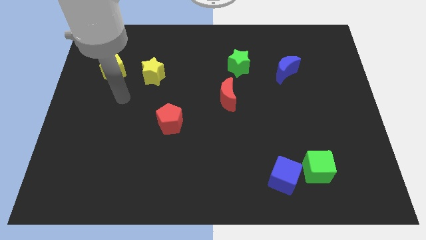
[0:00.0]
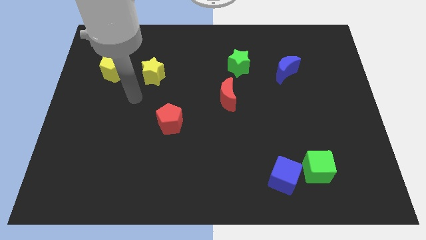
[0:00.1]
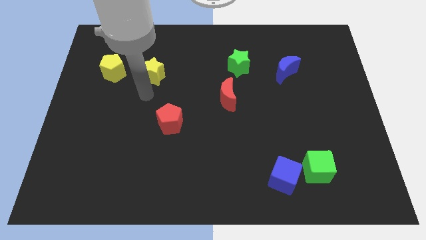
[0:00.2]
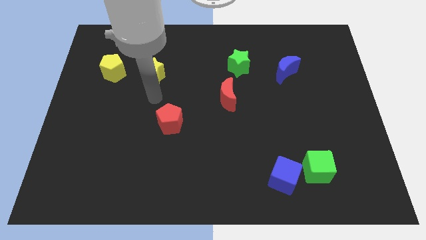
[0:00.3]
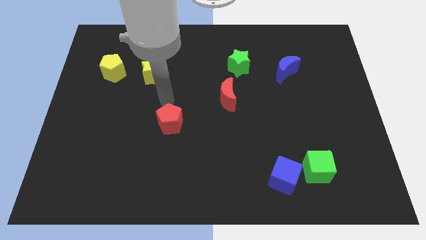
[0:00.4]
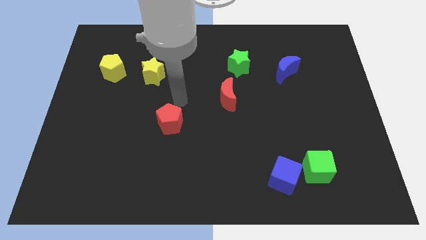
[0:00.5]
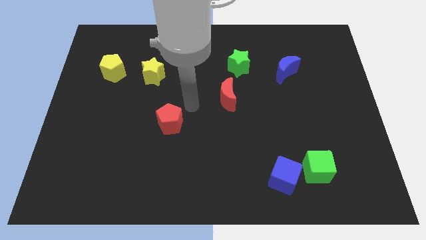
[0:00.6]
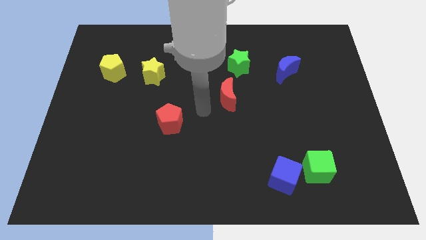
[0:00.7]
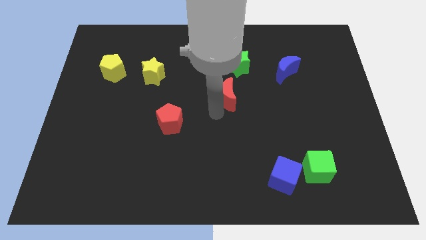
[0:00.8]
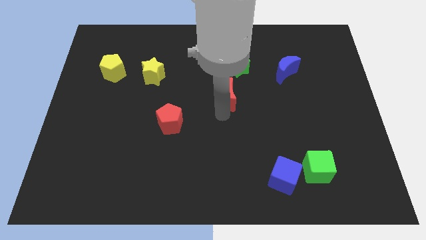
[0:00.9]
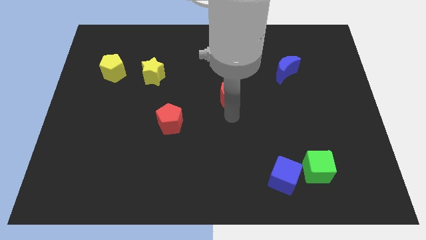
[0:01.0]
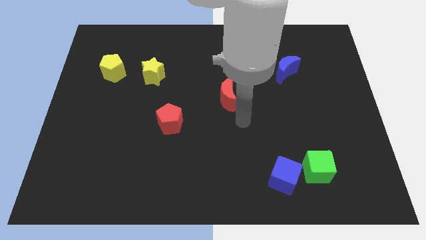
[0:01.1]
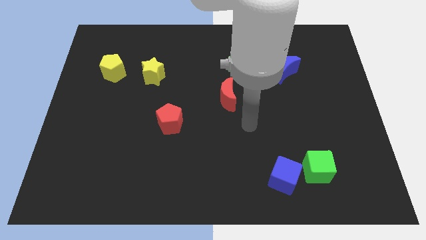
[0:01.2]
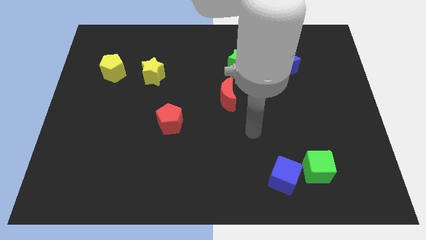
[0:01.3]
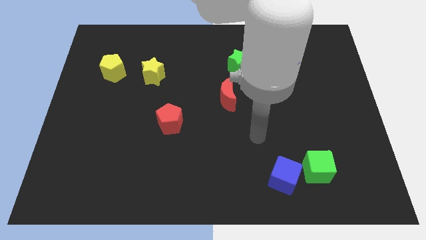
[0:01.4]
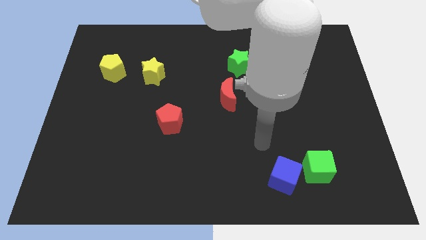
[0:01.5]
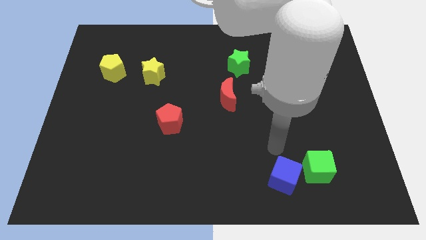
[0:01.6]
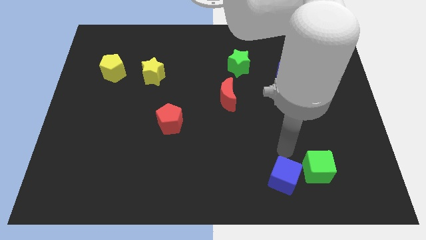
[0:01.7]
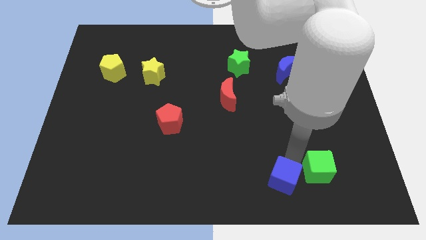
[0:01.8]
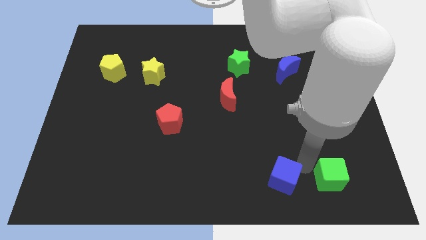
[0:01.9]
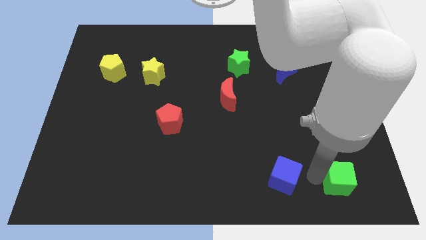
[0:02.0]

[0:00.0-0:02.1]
pull the blue cube apart from the green cube

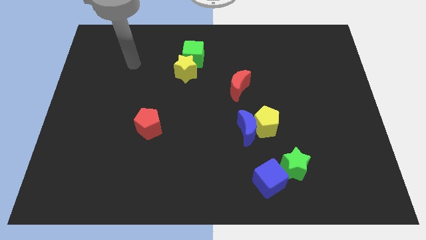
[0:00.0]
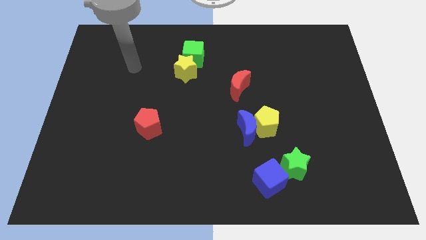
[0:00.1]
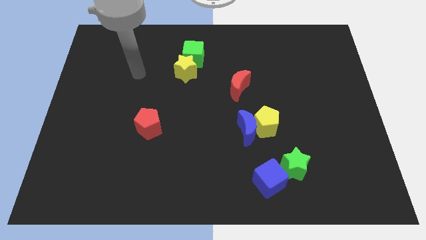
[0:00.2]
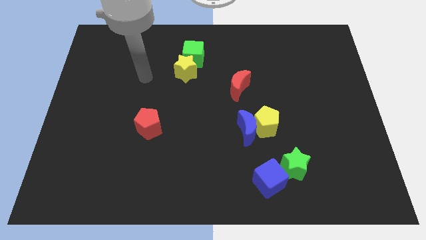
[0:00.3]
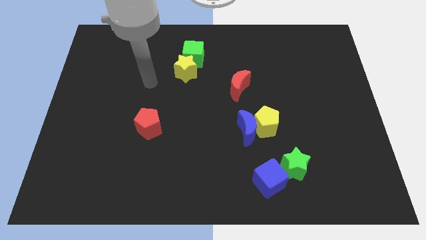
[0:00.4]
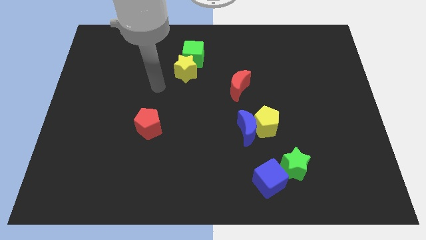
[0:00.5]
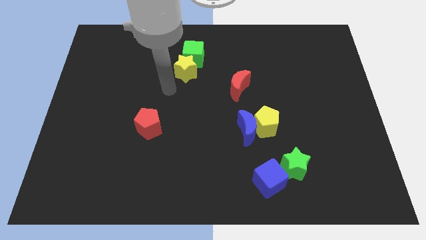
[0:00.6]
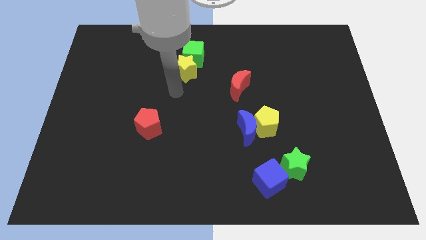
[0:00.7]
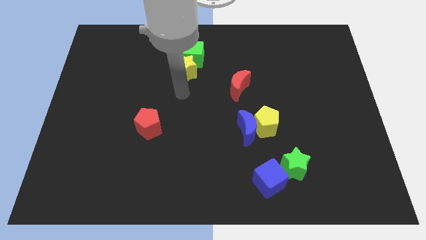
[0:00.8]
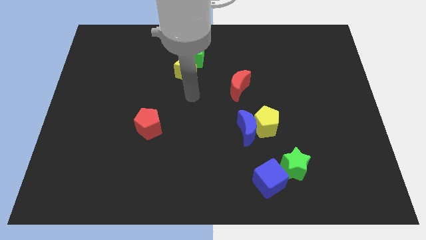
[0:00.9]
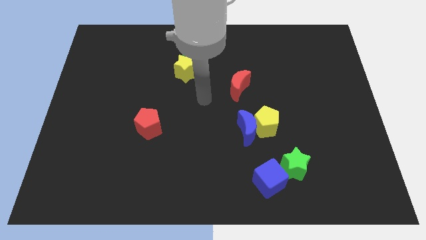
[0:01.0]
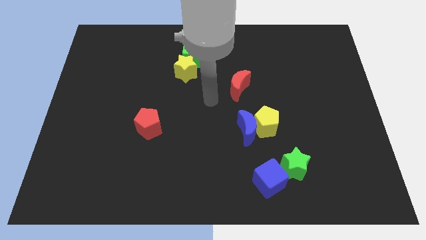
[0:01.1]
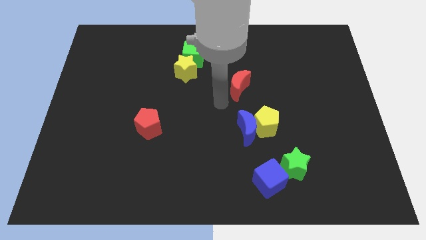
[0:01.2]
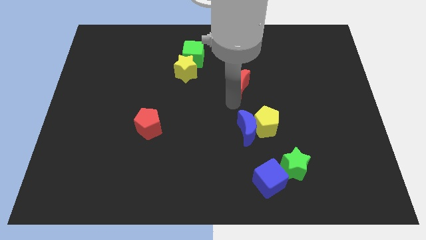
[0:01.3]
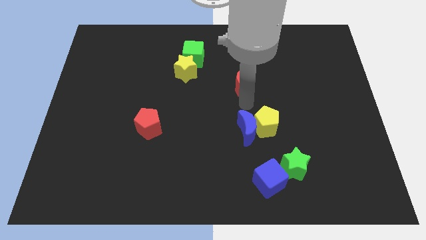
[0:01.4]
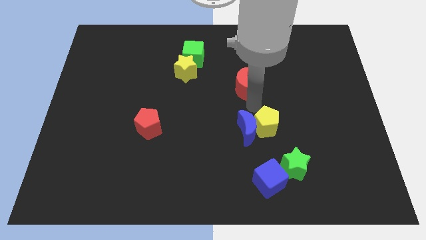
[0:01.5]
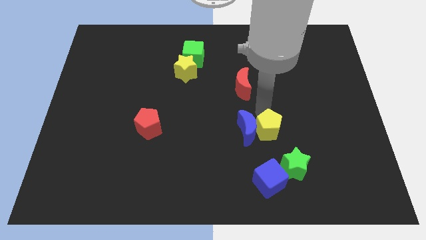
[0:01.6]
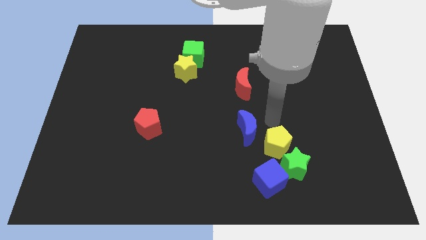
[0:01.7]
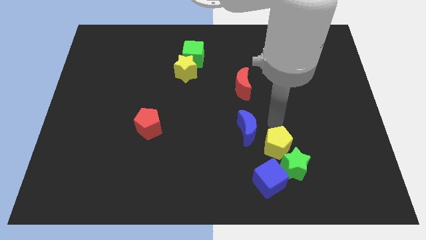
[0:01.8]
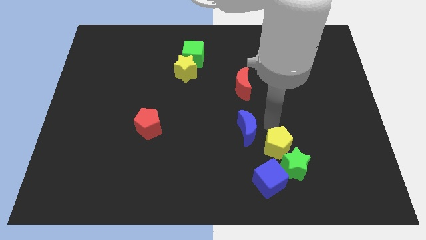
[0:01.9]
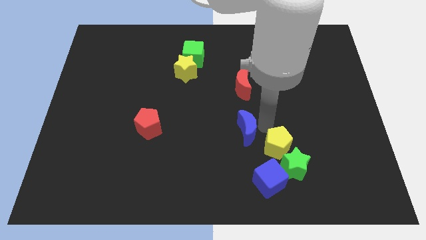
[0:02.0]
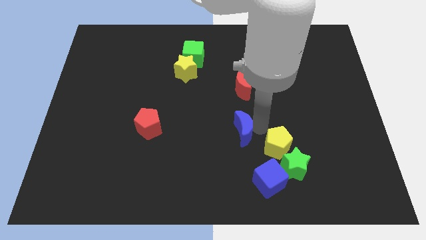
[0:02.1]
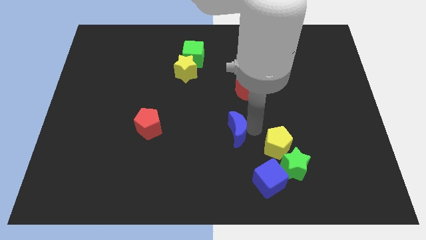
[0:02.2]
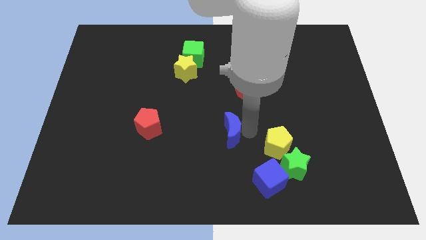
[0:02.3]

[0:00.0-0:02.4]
move the blue moon away from the yellow pentagon

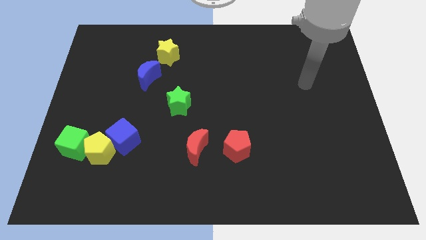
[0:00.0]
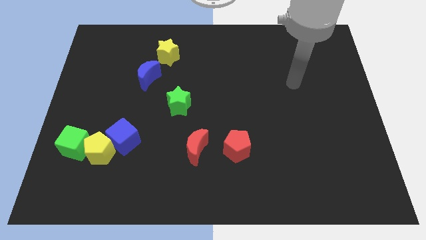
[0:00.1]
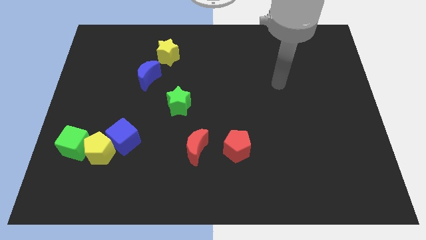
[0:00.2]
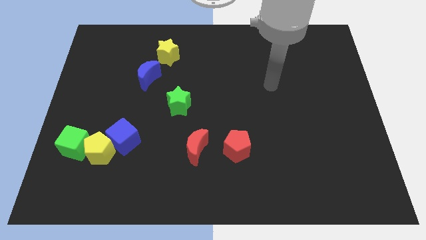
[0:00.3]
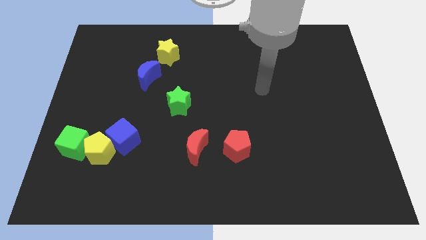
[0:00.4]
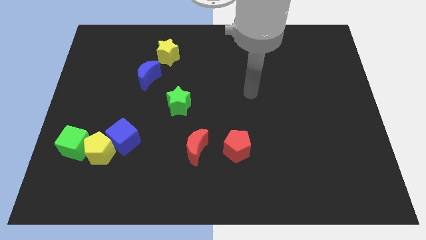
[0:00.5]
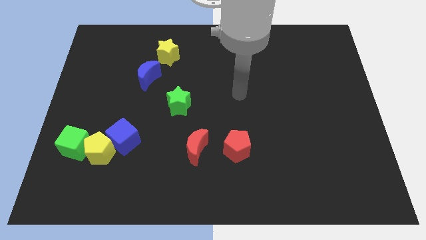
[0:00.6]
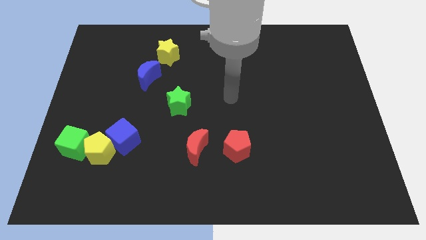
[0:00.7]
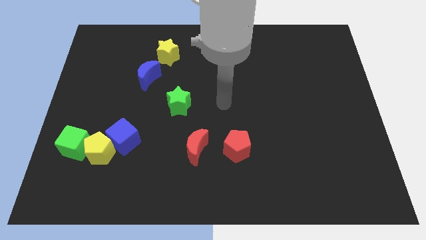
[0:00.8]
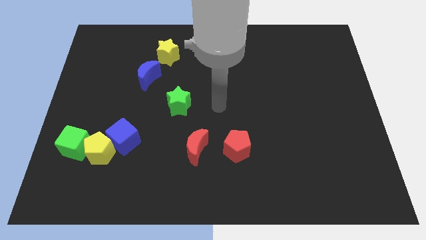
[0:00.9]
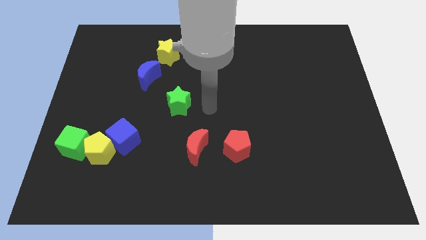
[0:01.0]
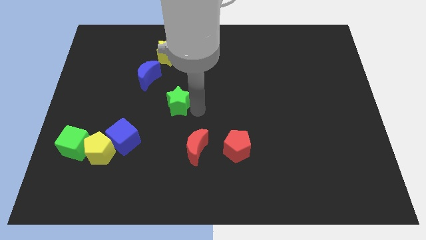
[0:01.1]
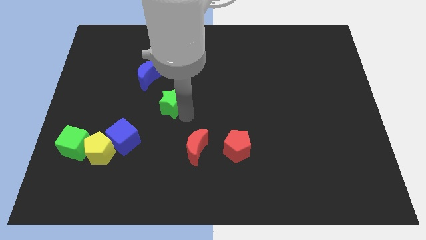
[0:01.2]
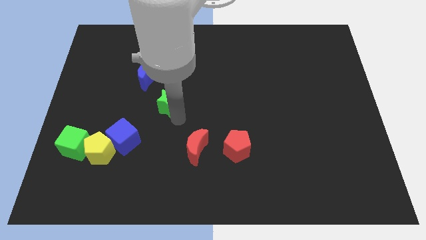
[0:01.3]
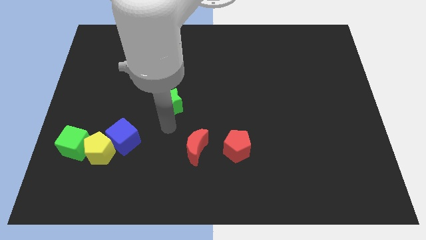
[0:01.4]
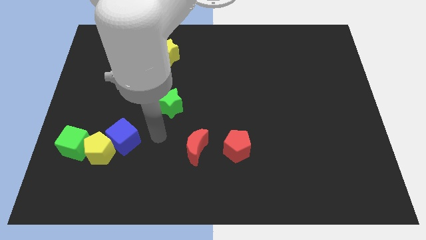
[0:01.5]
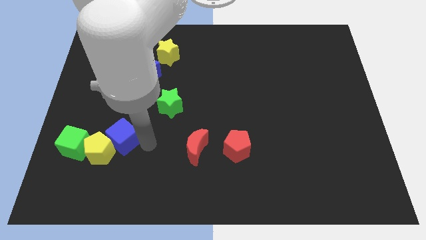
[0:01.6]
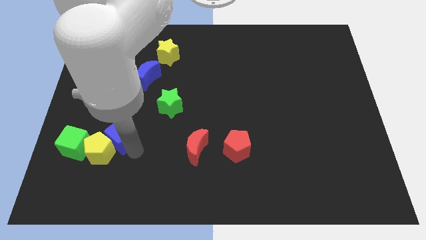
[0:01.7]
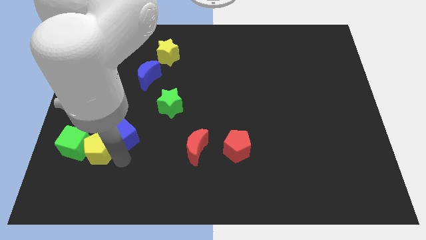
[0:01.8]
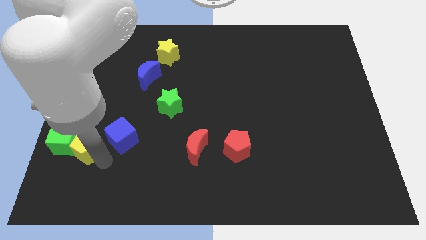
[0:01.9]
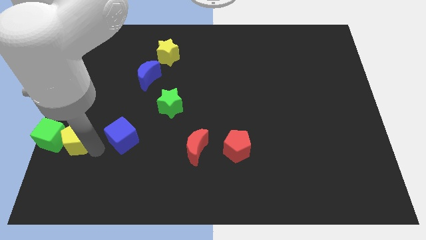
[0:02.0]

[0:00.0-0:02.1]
move the blue cube away from the yellow pentagon

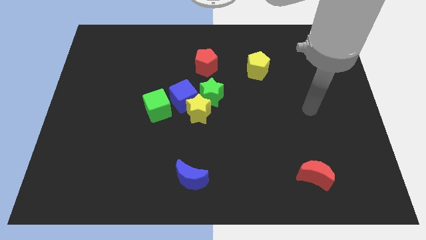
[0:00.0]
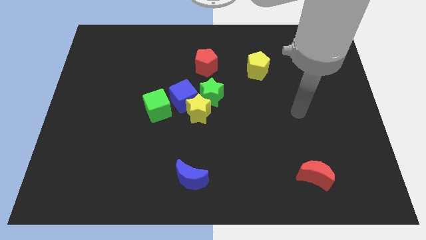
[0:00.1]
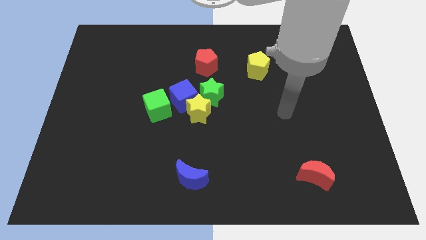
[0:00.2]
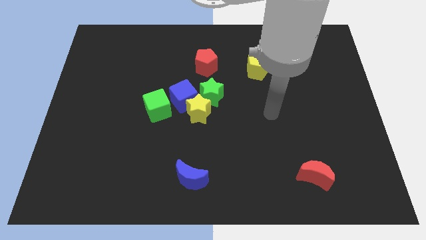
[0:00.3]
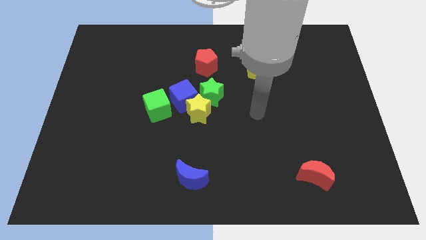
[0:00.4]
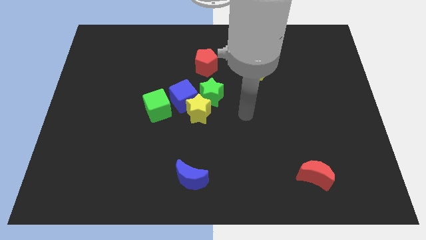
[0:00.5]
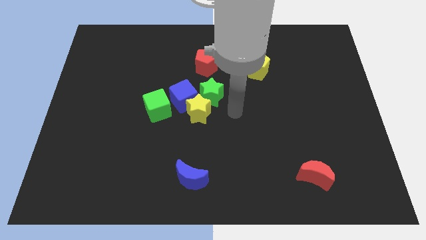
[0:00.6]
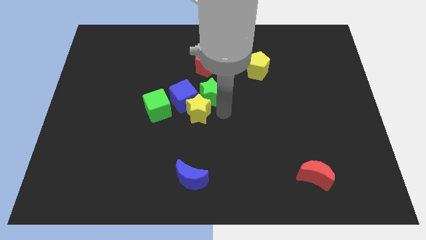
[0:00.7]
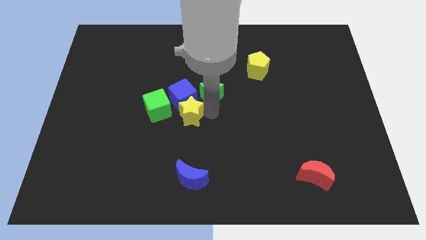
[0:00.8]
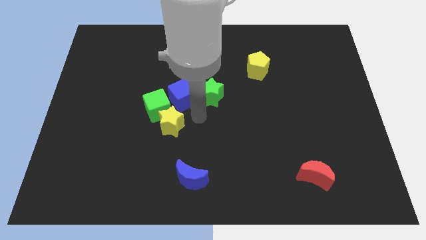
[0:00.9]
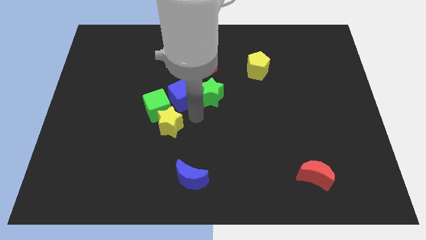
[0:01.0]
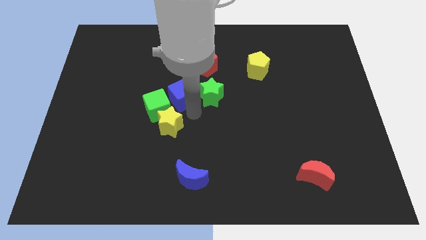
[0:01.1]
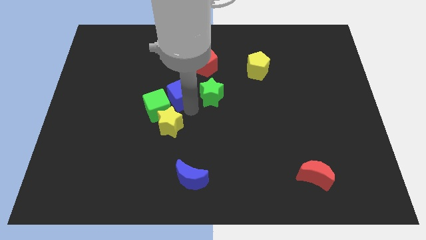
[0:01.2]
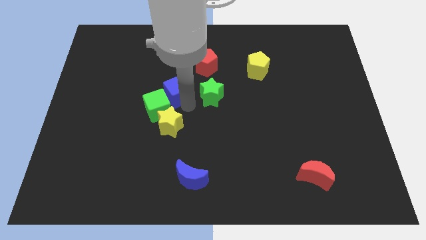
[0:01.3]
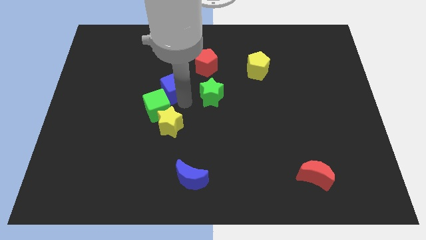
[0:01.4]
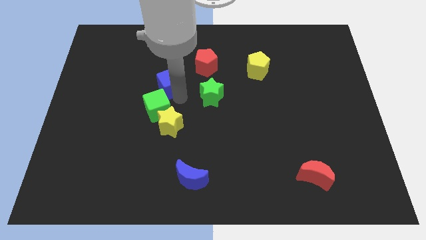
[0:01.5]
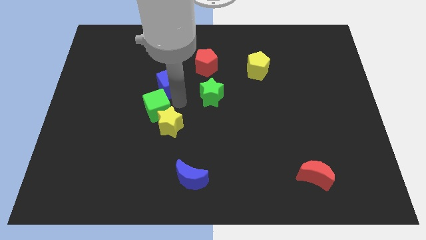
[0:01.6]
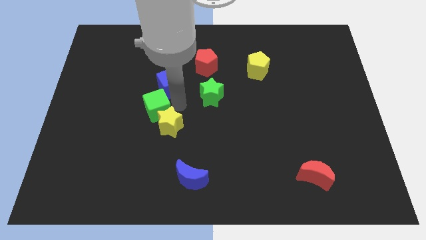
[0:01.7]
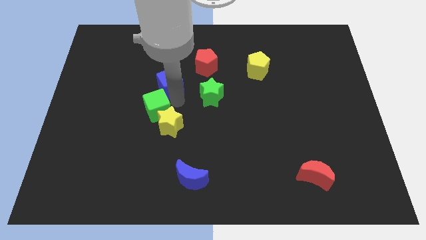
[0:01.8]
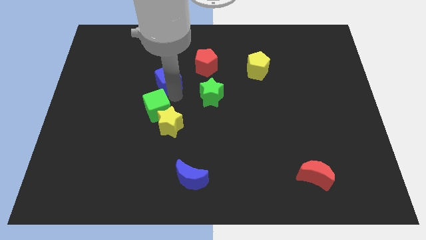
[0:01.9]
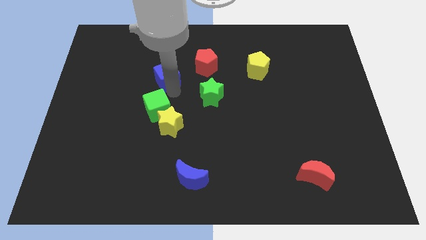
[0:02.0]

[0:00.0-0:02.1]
separate the blue cube from the group of blocks

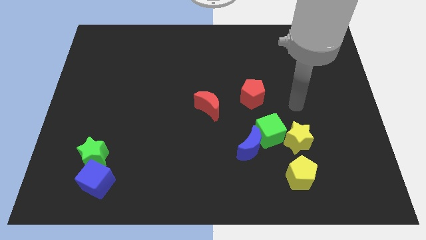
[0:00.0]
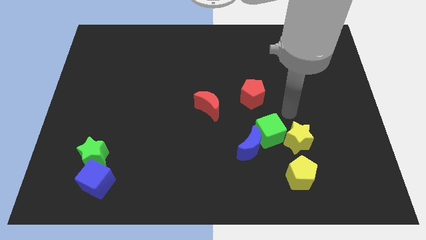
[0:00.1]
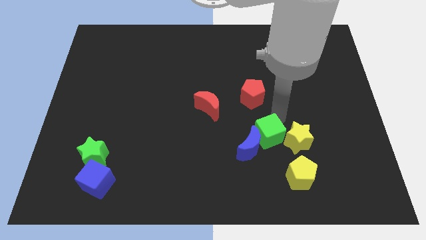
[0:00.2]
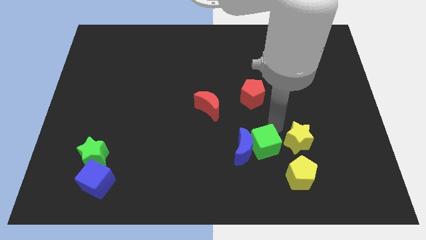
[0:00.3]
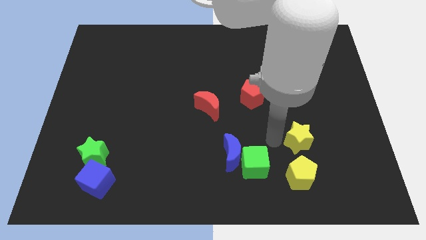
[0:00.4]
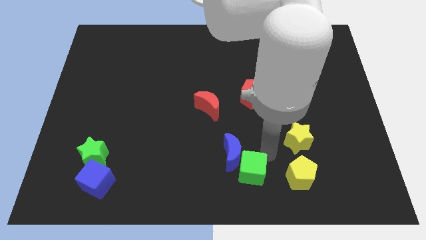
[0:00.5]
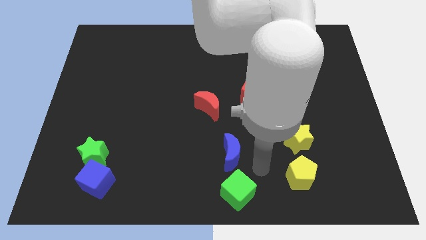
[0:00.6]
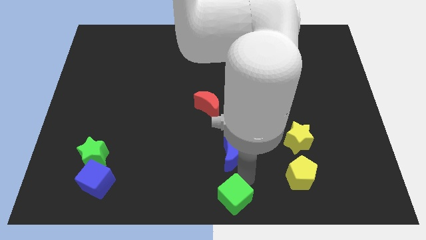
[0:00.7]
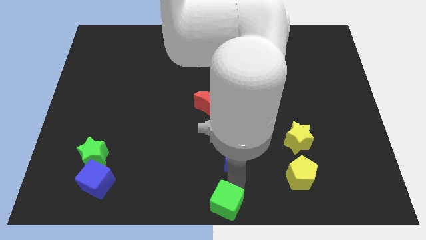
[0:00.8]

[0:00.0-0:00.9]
pull the blue moon apart from the green cube
